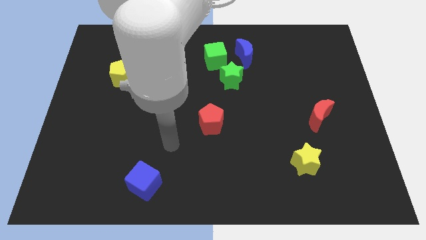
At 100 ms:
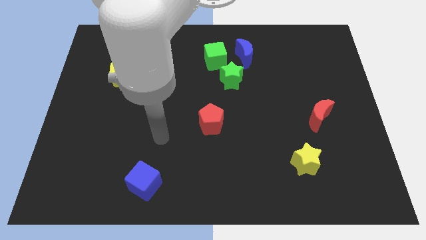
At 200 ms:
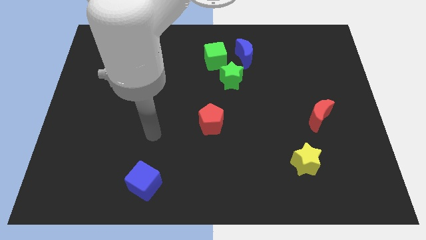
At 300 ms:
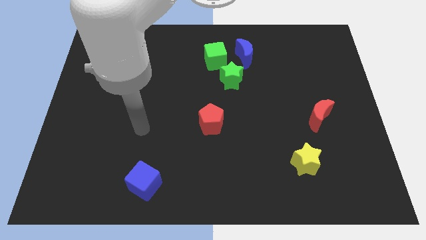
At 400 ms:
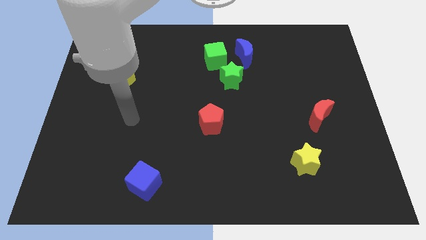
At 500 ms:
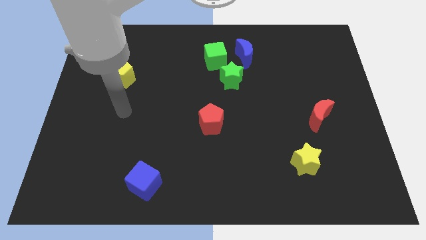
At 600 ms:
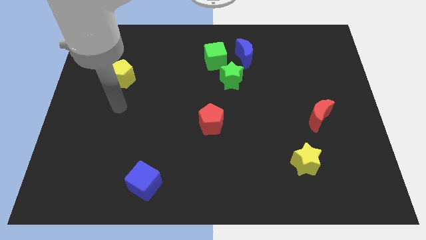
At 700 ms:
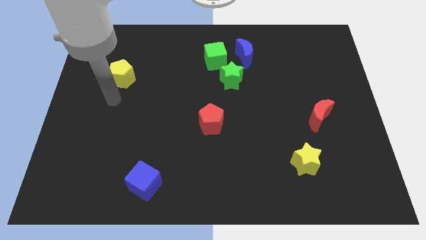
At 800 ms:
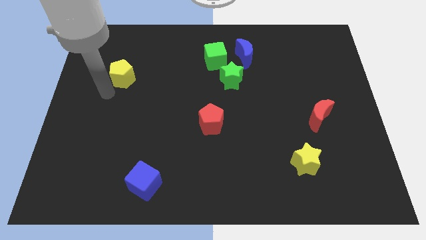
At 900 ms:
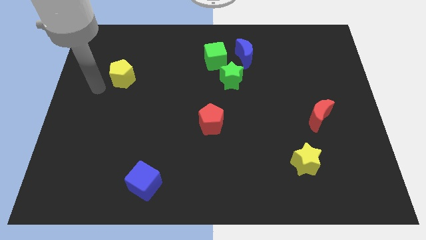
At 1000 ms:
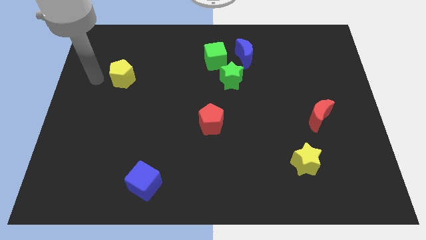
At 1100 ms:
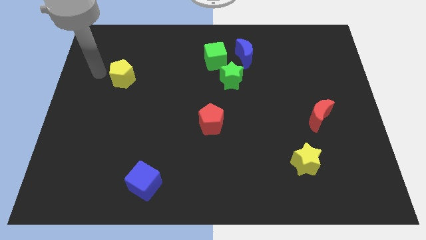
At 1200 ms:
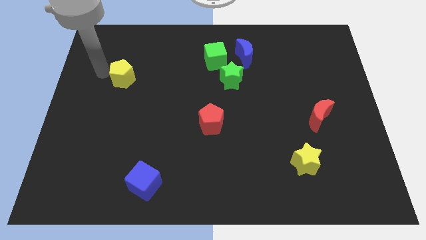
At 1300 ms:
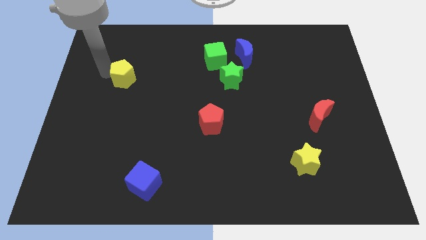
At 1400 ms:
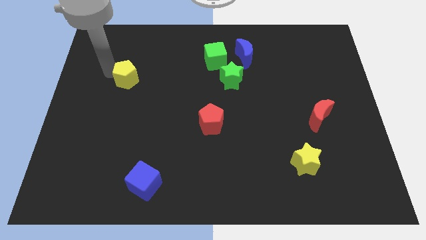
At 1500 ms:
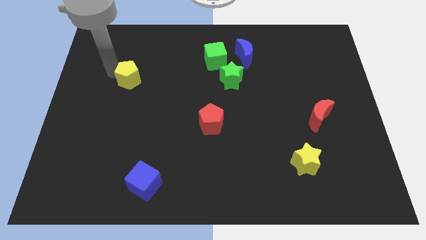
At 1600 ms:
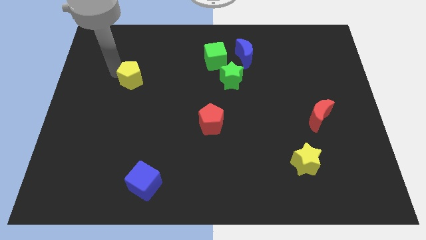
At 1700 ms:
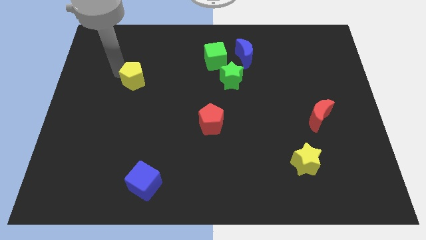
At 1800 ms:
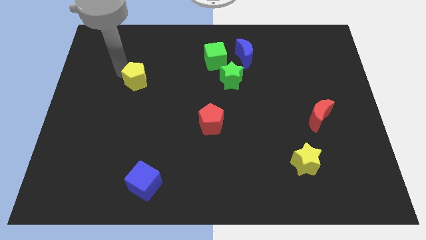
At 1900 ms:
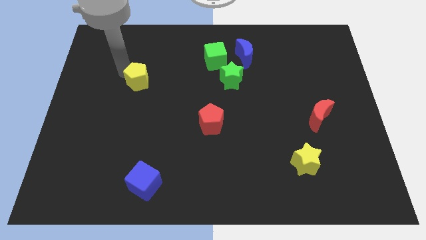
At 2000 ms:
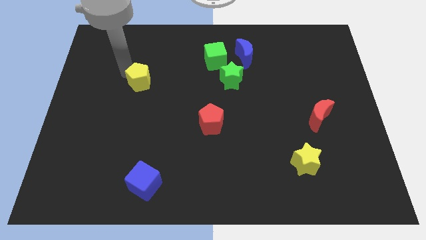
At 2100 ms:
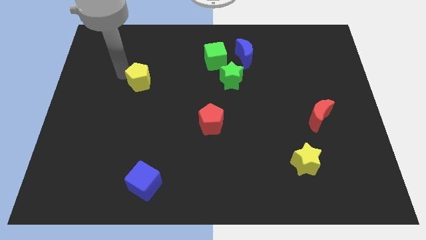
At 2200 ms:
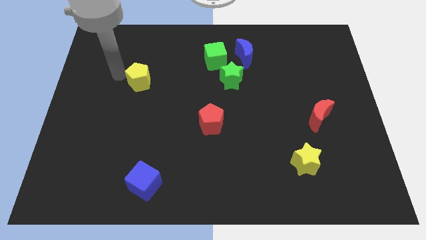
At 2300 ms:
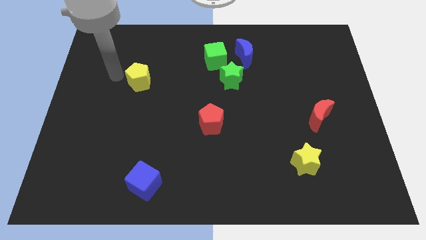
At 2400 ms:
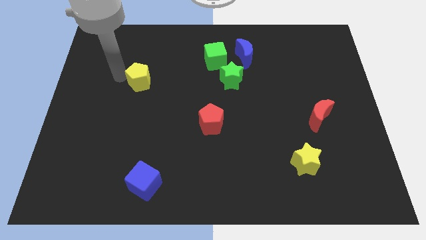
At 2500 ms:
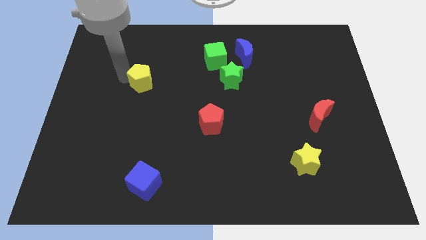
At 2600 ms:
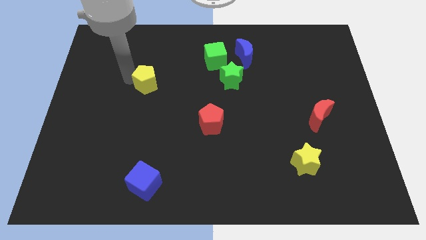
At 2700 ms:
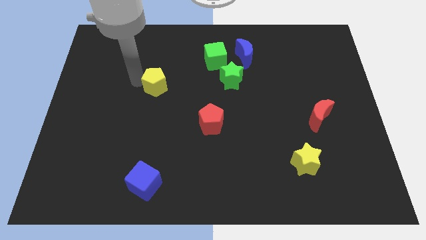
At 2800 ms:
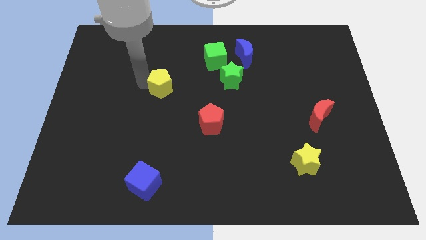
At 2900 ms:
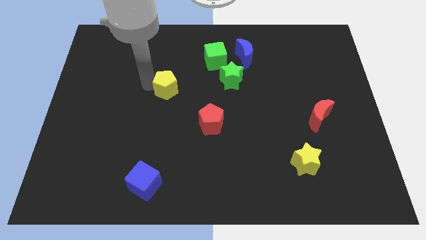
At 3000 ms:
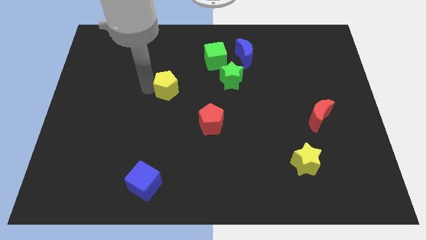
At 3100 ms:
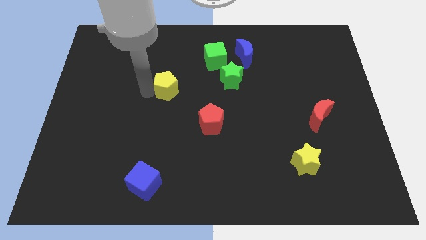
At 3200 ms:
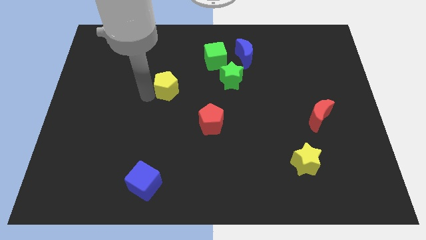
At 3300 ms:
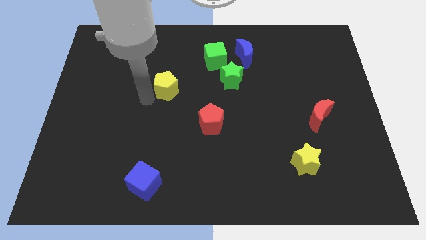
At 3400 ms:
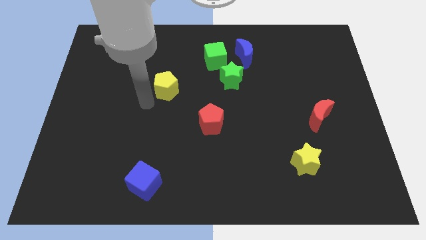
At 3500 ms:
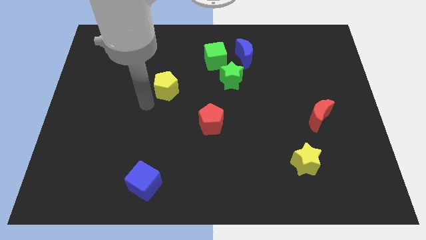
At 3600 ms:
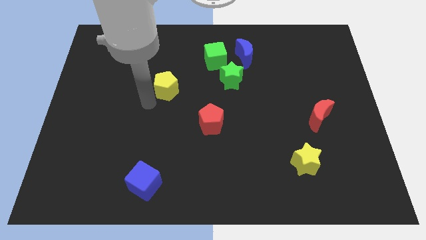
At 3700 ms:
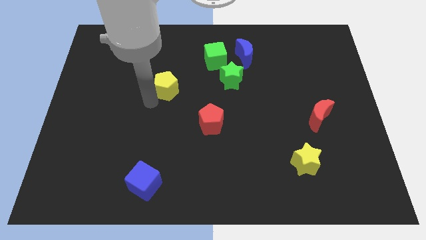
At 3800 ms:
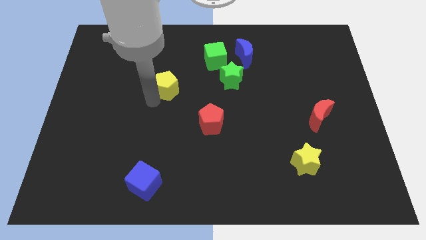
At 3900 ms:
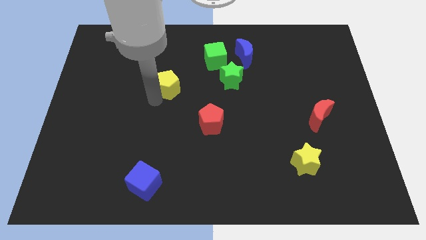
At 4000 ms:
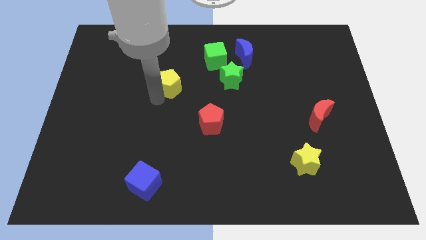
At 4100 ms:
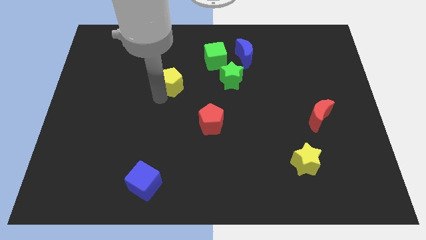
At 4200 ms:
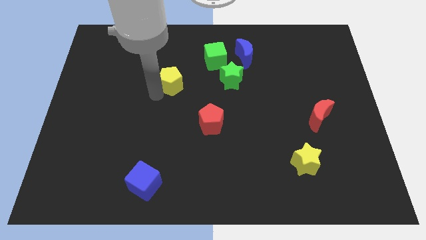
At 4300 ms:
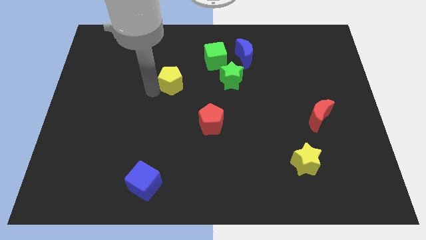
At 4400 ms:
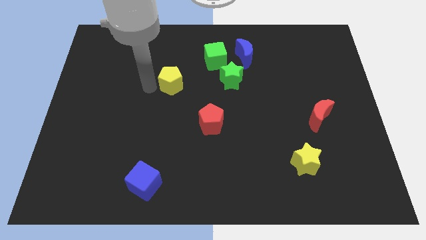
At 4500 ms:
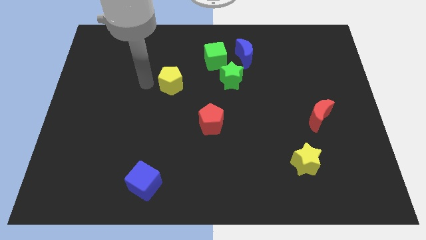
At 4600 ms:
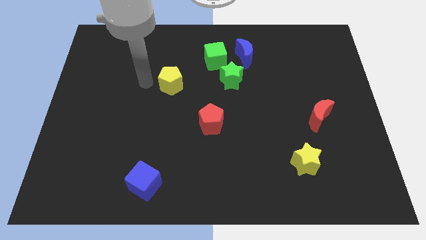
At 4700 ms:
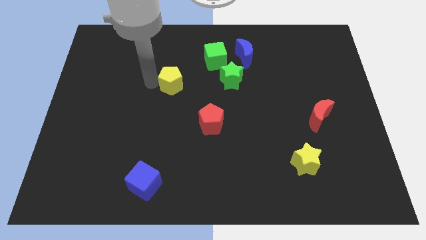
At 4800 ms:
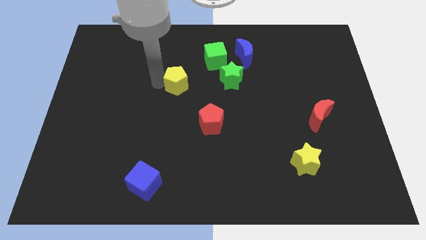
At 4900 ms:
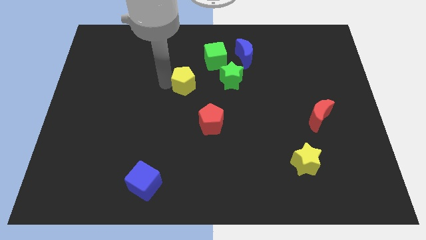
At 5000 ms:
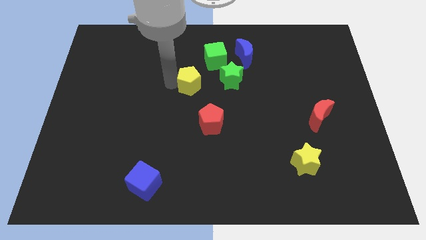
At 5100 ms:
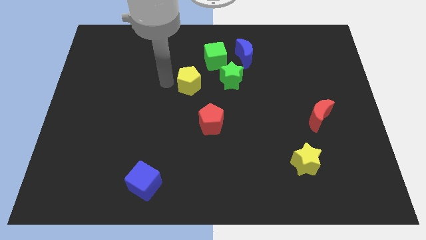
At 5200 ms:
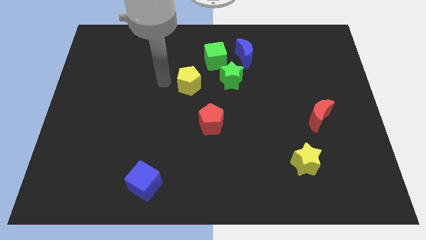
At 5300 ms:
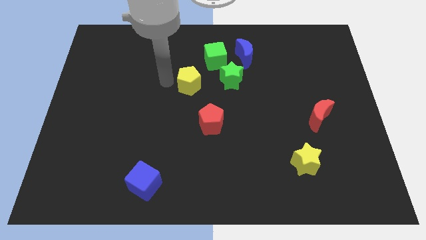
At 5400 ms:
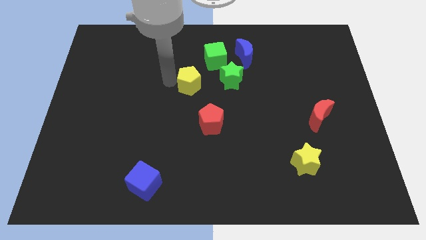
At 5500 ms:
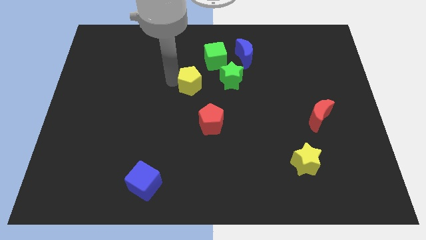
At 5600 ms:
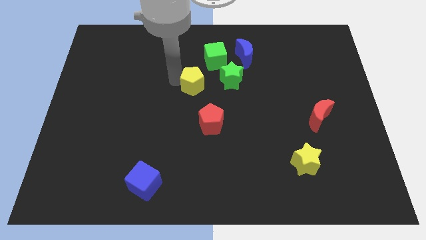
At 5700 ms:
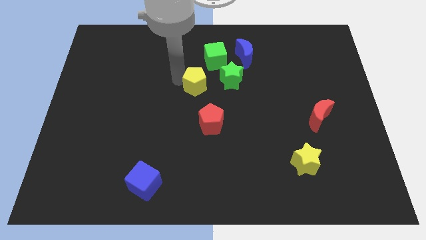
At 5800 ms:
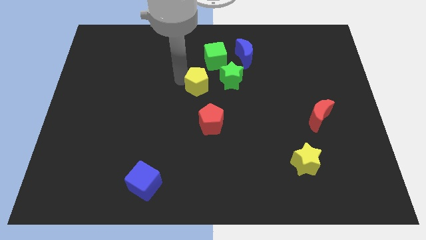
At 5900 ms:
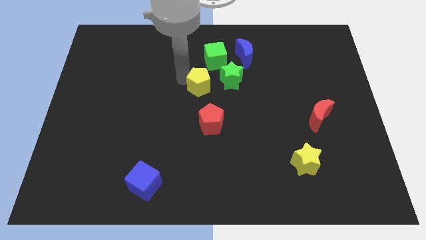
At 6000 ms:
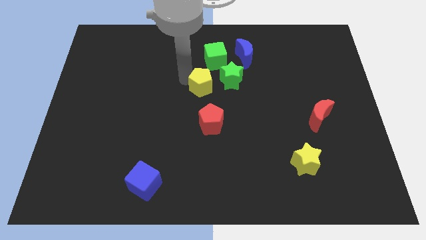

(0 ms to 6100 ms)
slide the yellow pentagon to the right

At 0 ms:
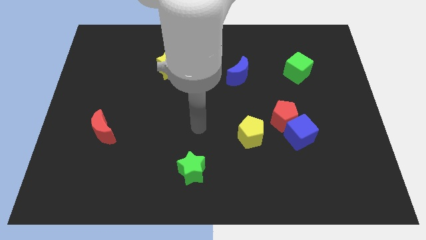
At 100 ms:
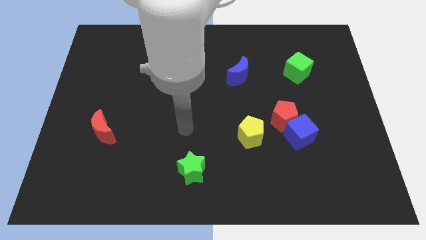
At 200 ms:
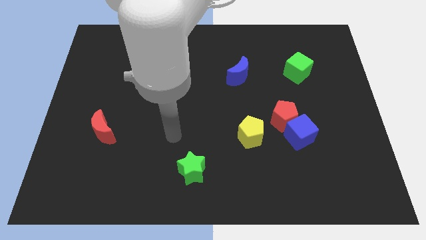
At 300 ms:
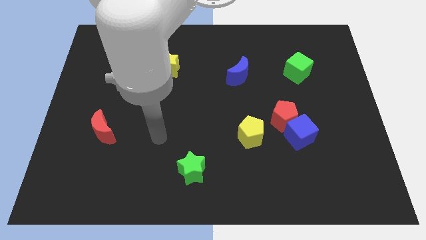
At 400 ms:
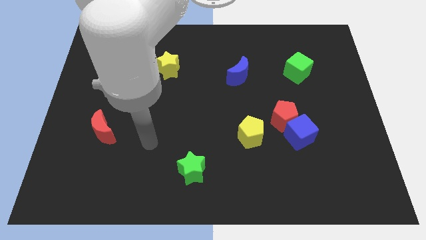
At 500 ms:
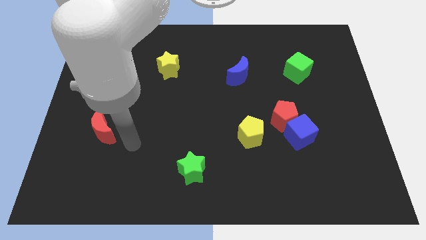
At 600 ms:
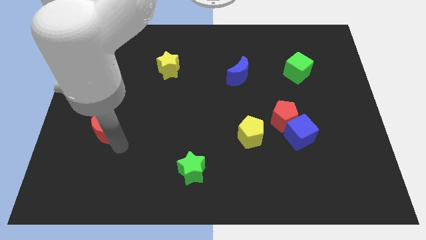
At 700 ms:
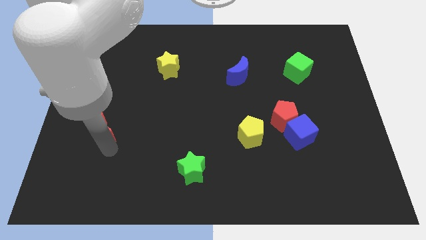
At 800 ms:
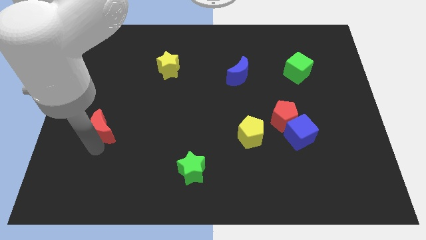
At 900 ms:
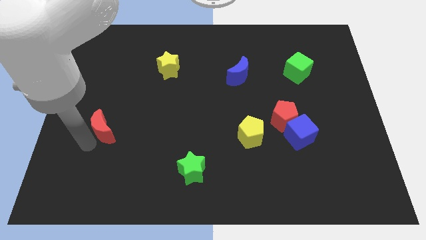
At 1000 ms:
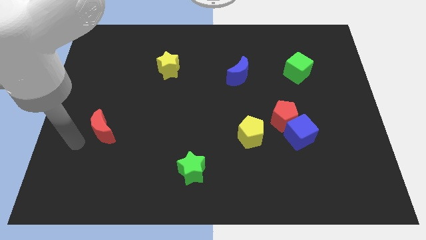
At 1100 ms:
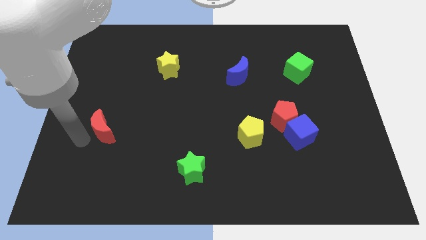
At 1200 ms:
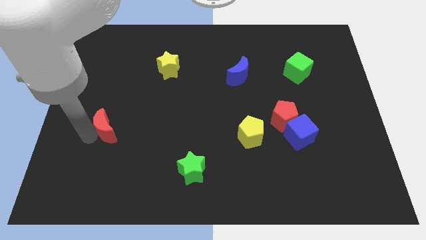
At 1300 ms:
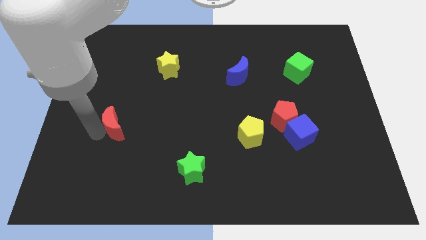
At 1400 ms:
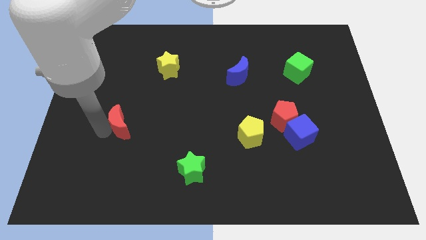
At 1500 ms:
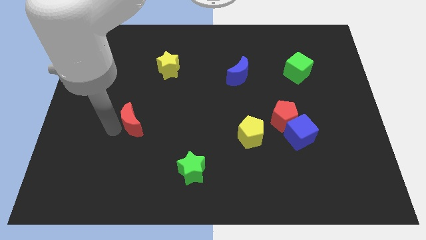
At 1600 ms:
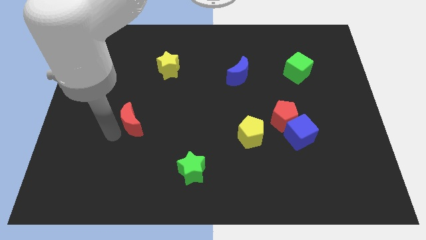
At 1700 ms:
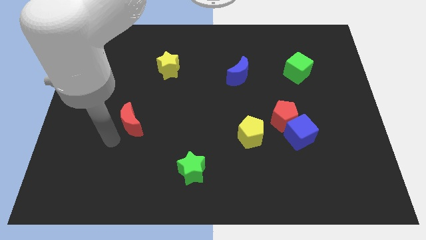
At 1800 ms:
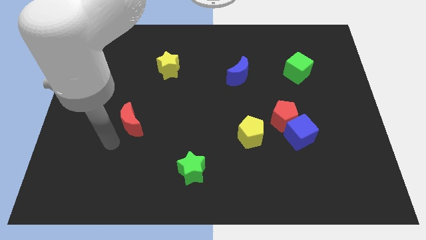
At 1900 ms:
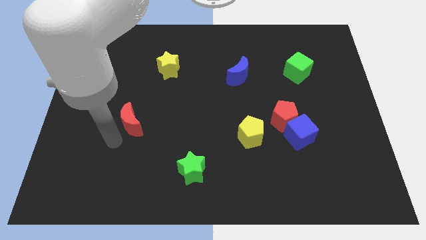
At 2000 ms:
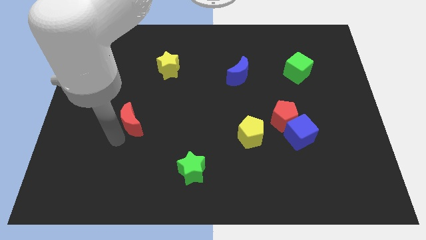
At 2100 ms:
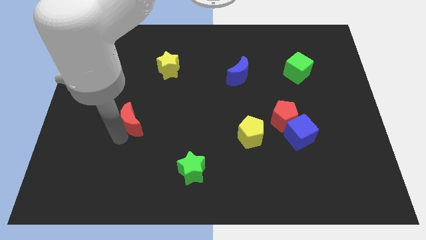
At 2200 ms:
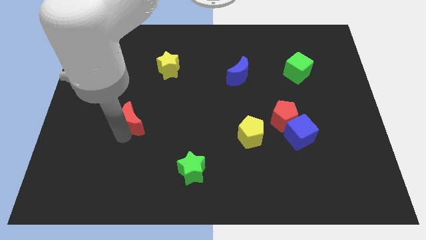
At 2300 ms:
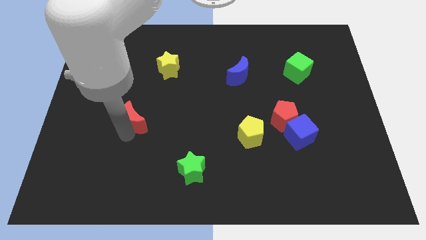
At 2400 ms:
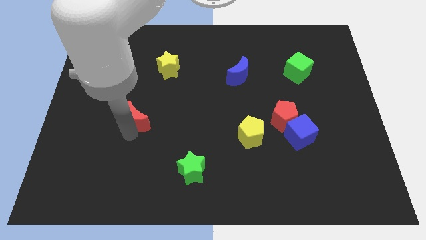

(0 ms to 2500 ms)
push the red moon diagonally upwards and right somewhat
